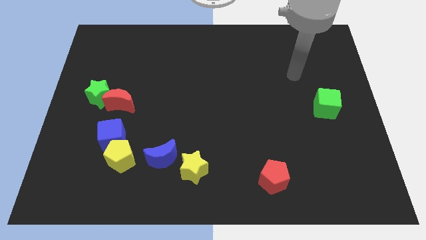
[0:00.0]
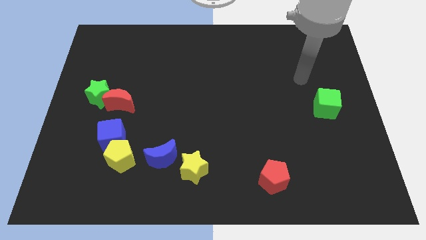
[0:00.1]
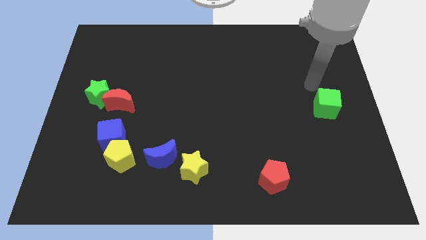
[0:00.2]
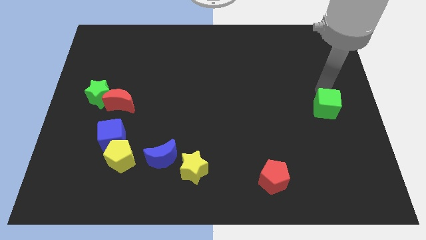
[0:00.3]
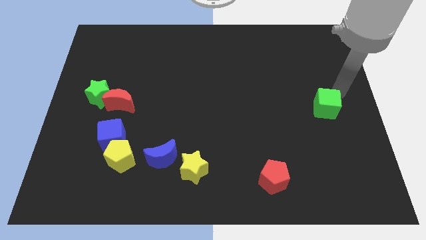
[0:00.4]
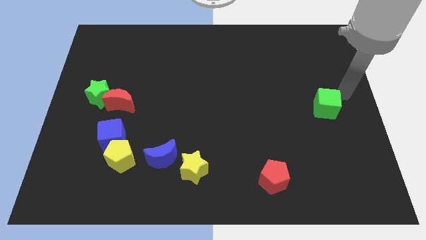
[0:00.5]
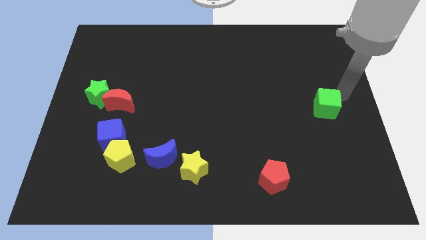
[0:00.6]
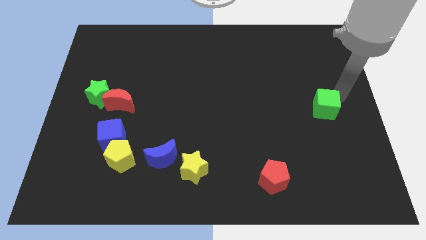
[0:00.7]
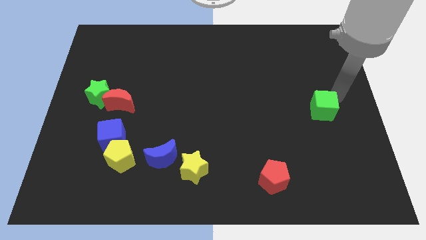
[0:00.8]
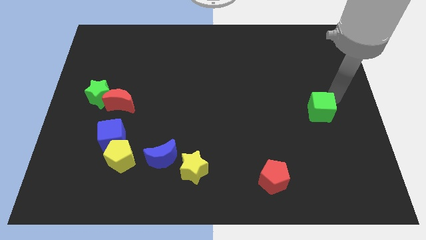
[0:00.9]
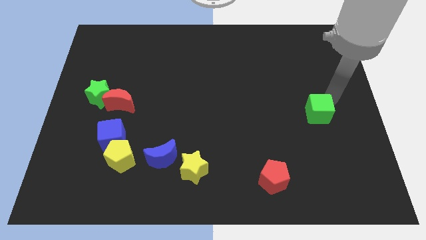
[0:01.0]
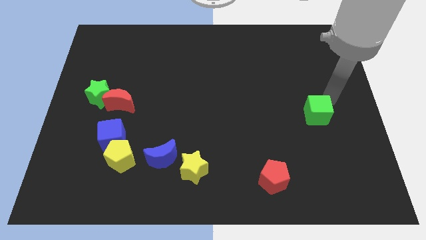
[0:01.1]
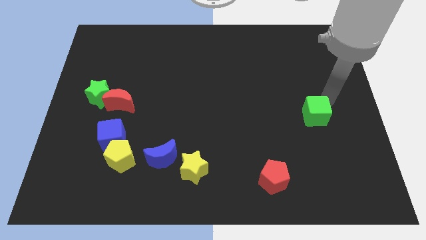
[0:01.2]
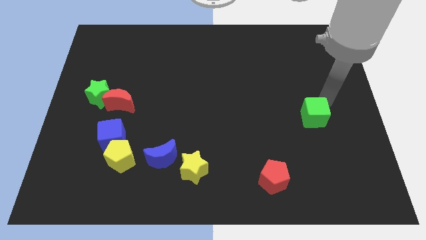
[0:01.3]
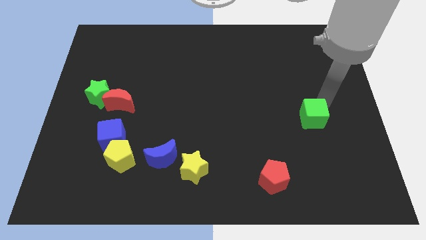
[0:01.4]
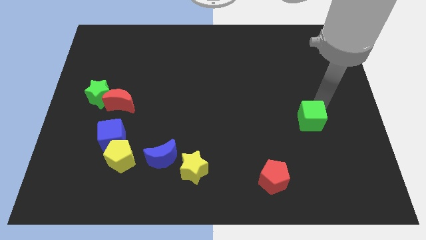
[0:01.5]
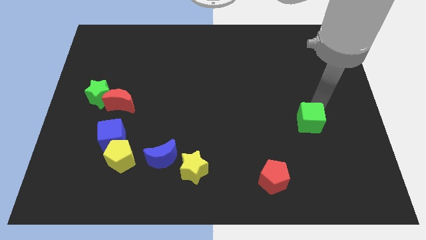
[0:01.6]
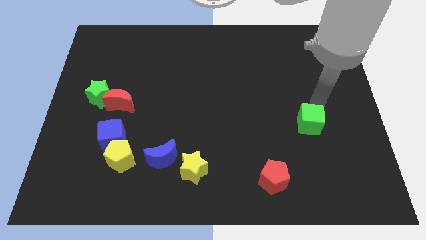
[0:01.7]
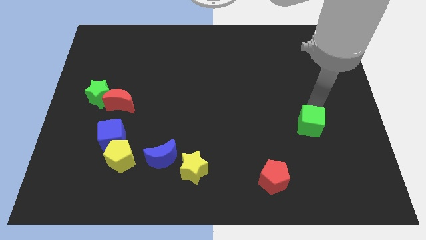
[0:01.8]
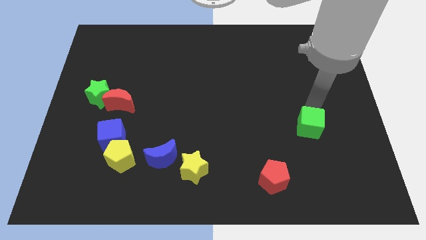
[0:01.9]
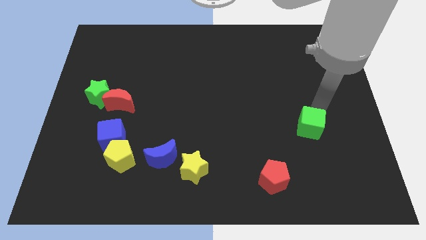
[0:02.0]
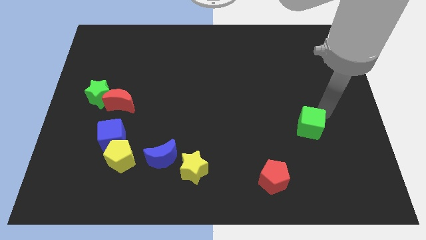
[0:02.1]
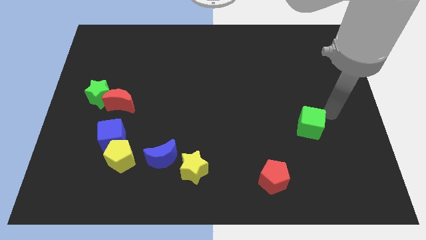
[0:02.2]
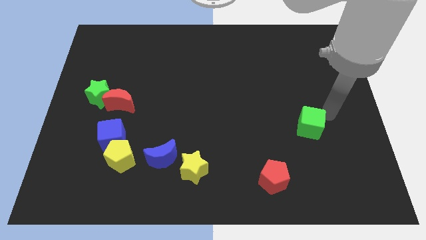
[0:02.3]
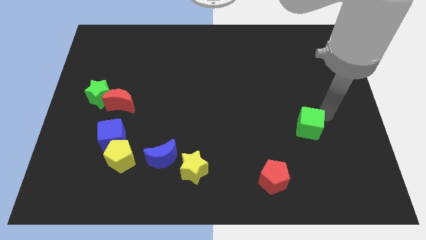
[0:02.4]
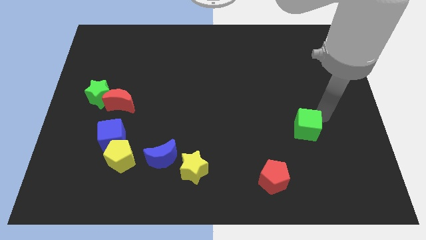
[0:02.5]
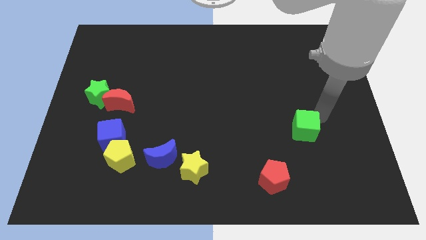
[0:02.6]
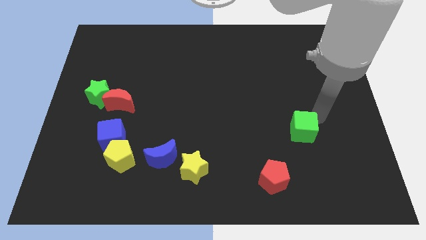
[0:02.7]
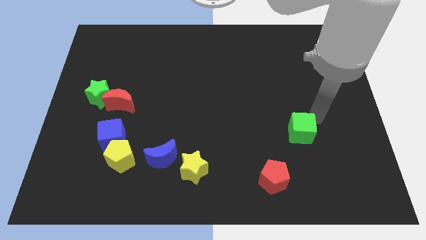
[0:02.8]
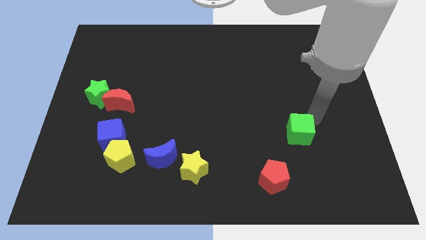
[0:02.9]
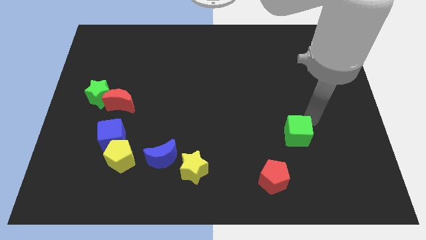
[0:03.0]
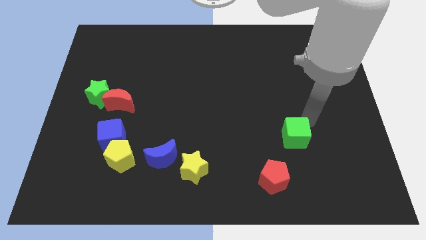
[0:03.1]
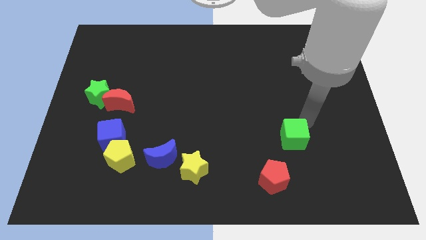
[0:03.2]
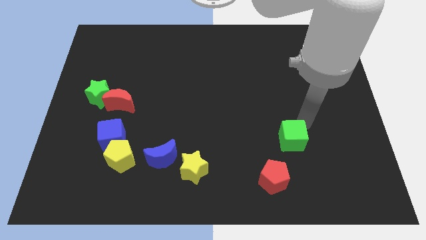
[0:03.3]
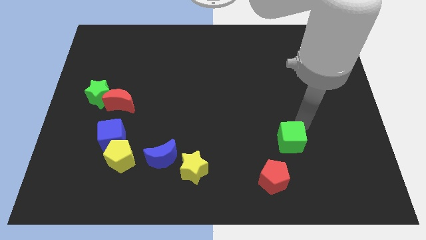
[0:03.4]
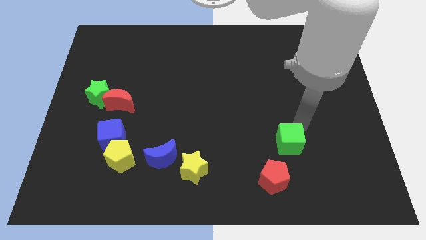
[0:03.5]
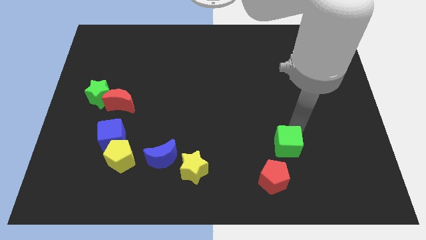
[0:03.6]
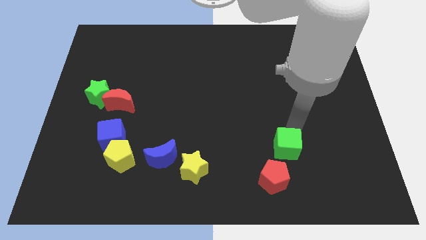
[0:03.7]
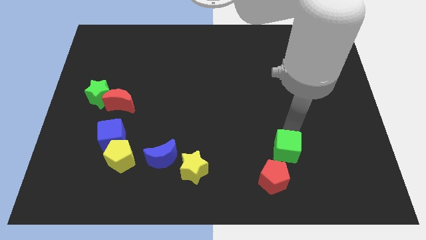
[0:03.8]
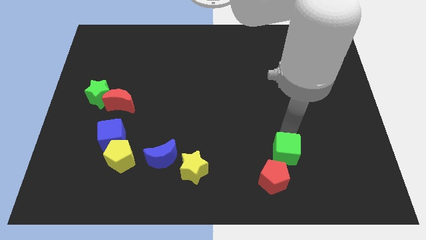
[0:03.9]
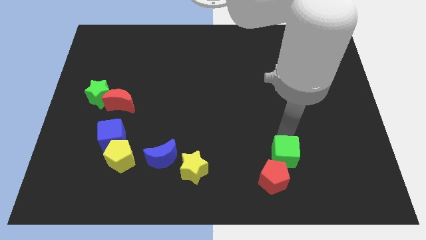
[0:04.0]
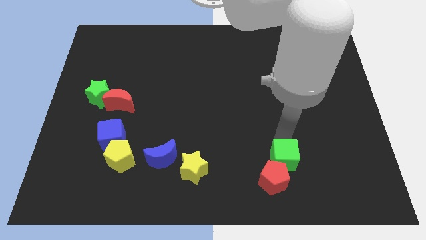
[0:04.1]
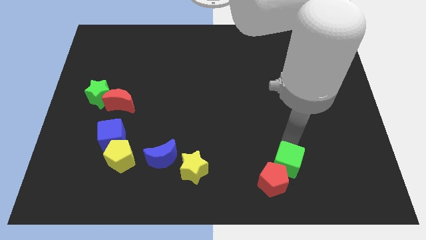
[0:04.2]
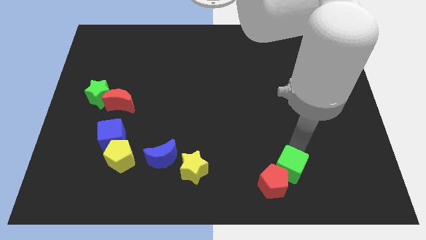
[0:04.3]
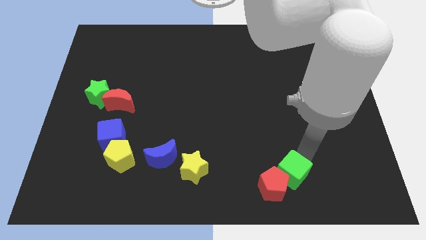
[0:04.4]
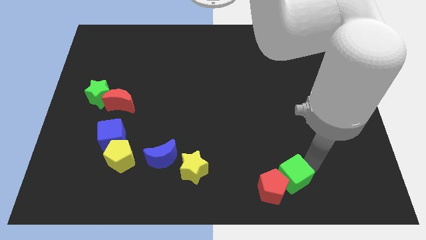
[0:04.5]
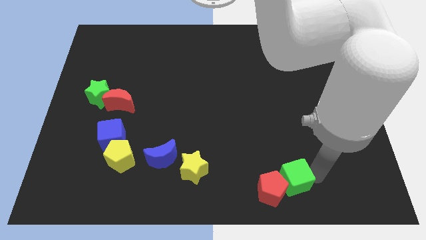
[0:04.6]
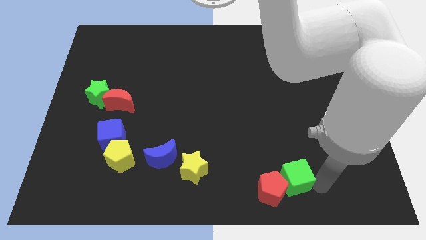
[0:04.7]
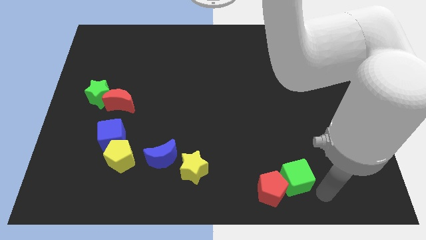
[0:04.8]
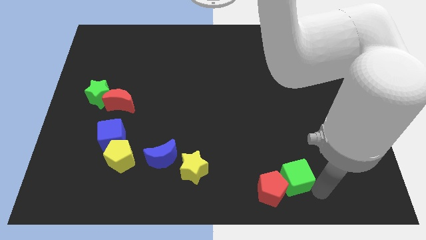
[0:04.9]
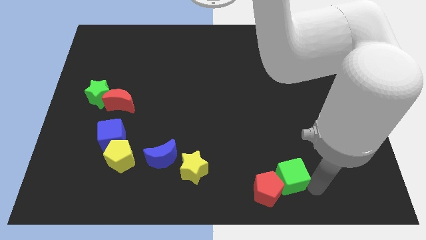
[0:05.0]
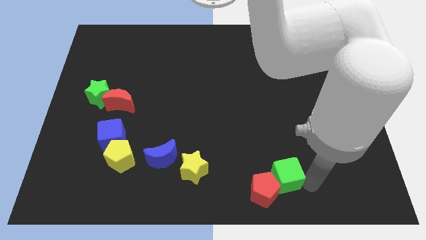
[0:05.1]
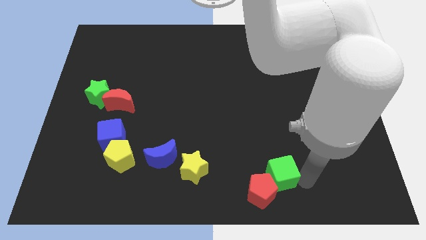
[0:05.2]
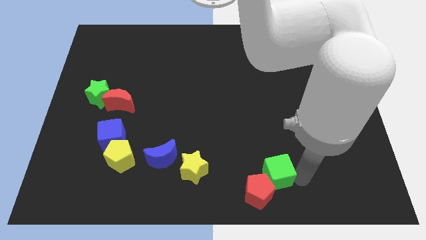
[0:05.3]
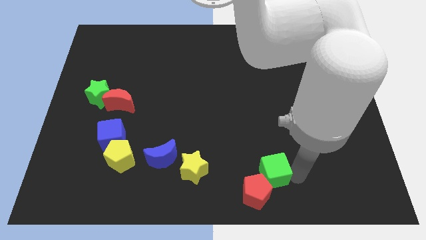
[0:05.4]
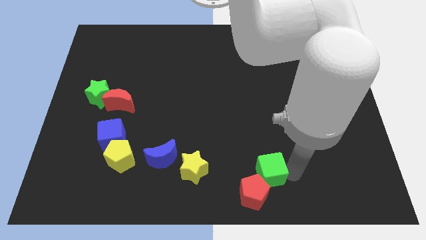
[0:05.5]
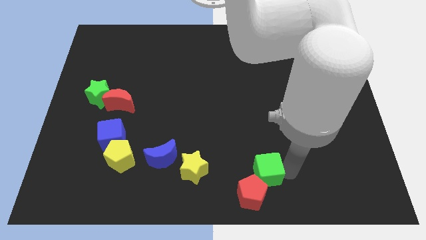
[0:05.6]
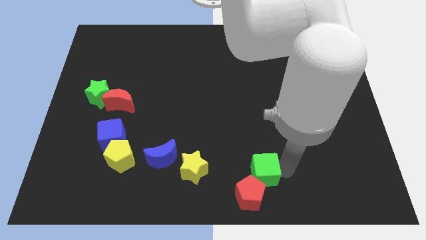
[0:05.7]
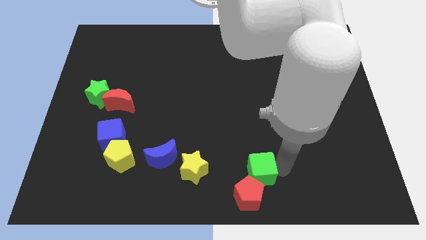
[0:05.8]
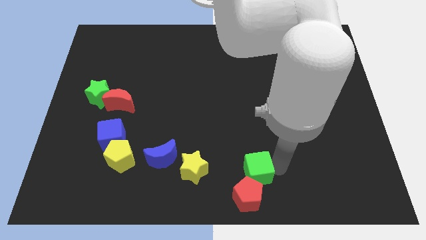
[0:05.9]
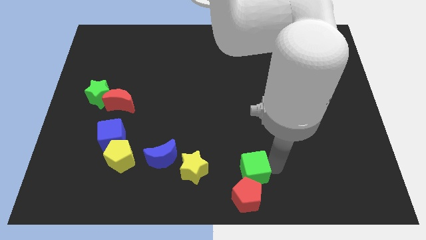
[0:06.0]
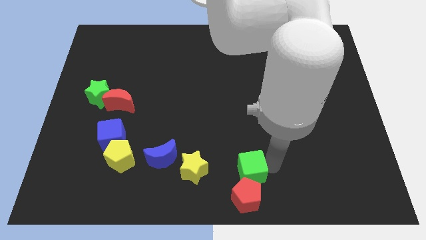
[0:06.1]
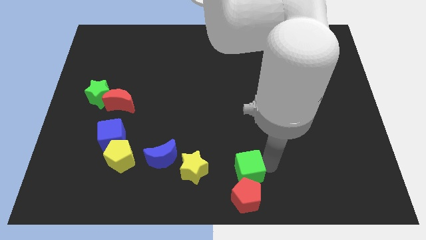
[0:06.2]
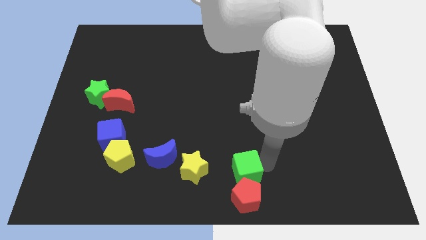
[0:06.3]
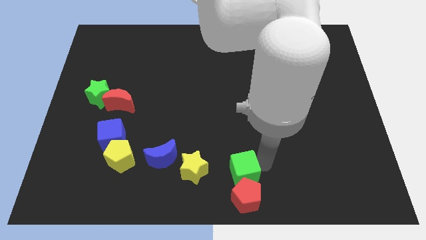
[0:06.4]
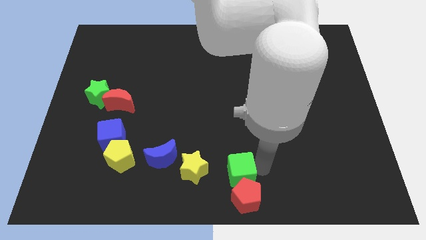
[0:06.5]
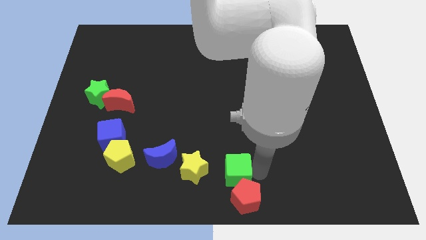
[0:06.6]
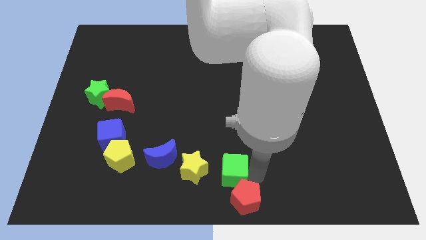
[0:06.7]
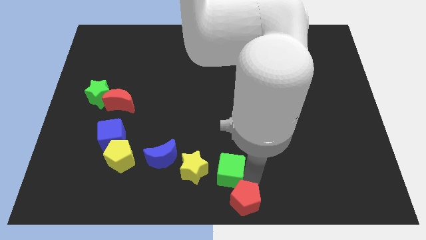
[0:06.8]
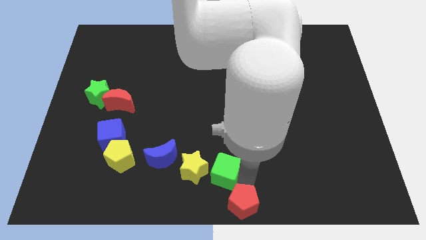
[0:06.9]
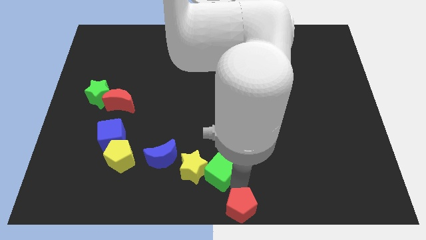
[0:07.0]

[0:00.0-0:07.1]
put the green cube to the yellow star
